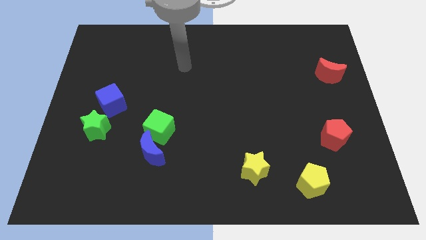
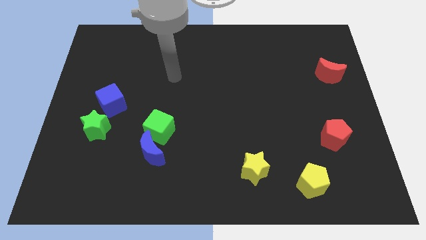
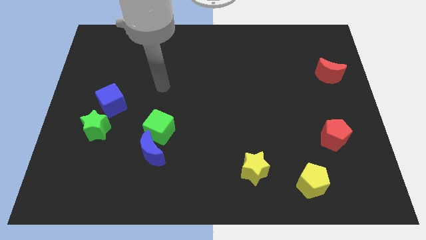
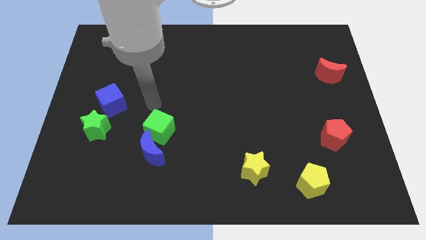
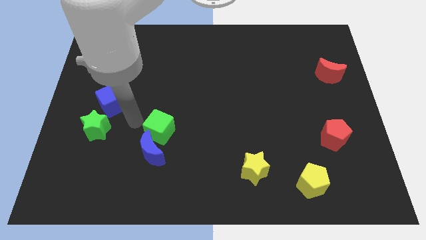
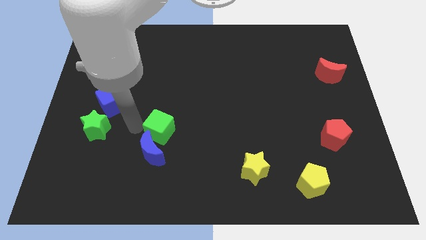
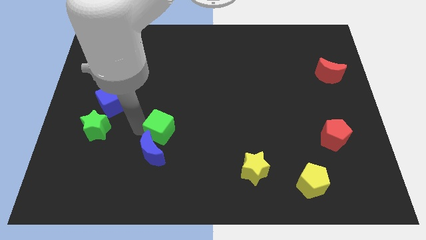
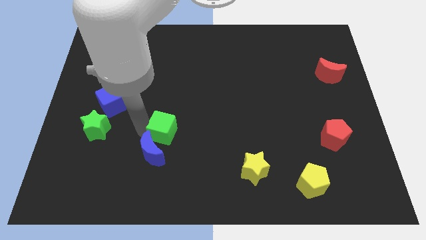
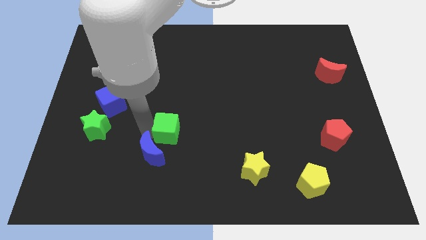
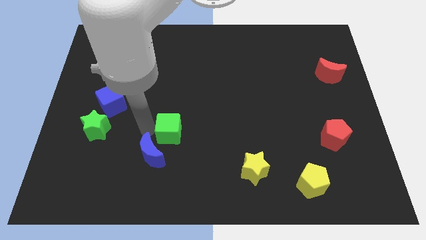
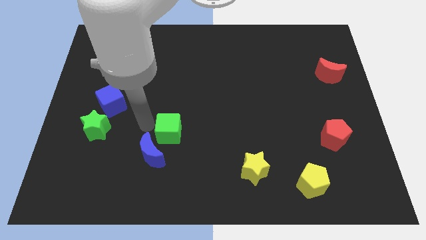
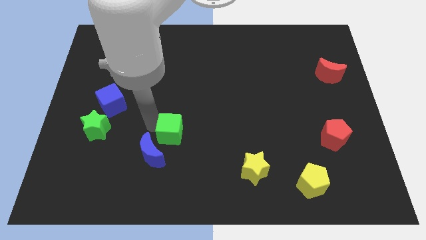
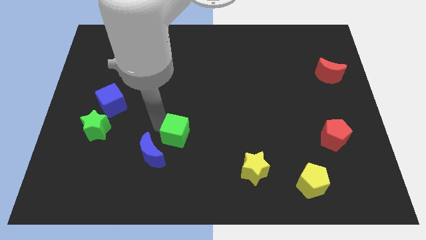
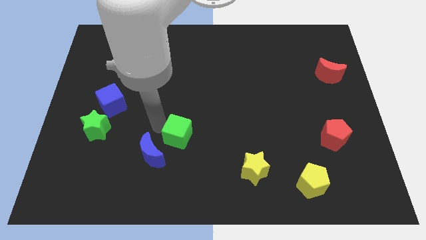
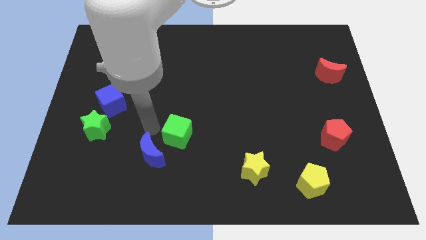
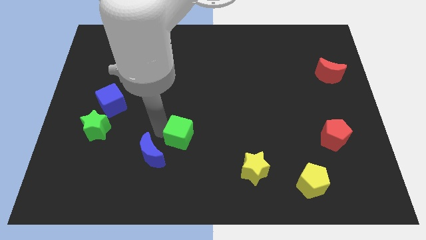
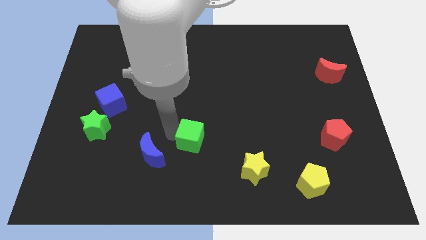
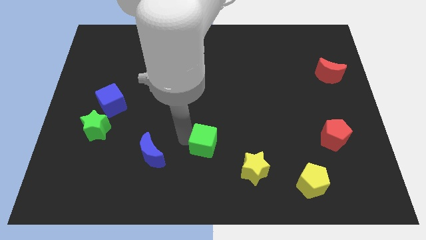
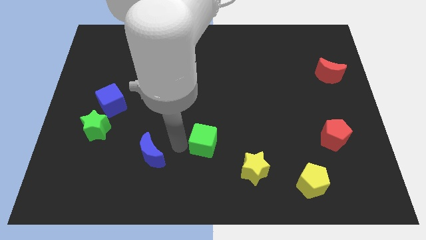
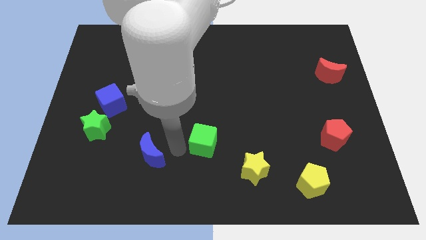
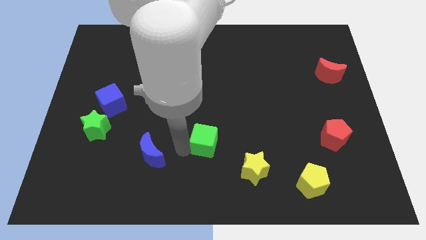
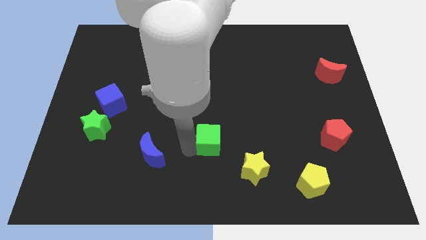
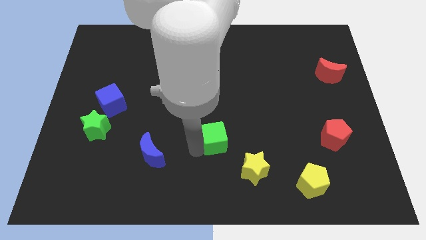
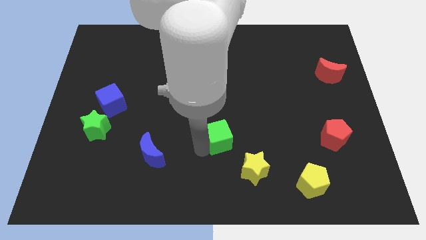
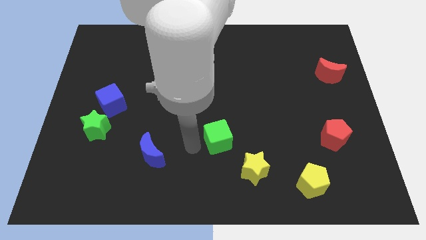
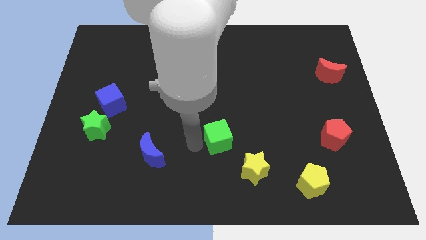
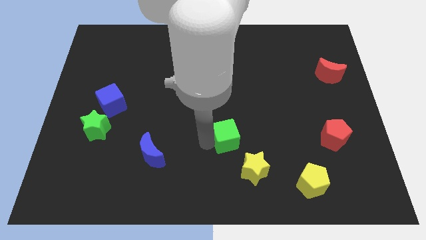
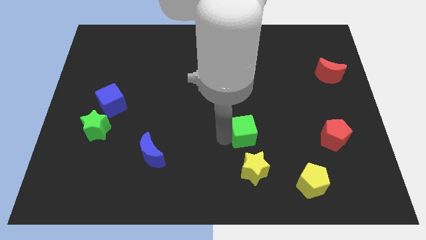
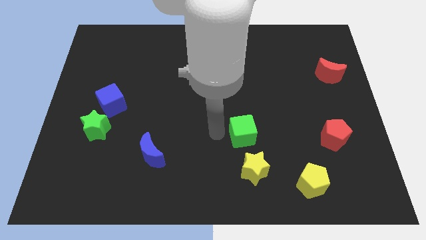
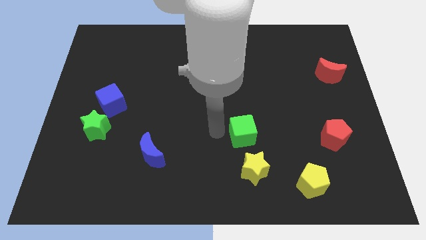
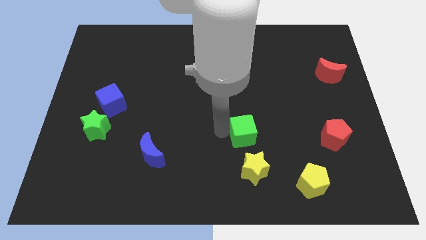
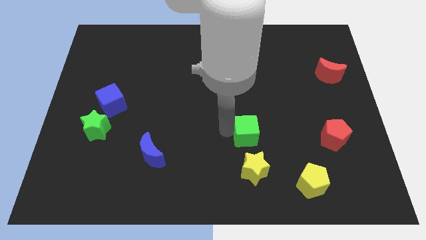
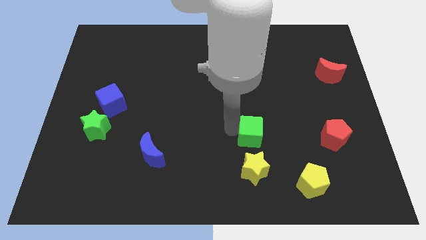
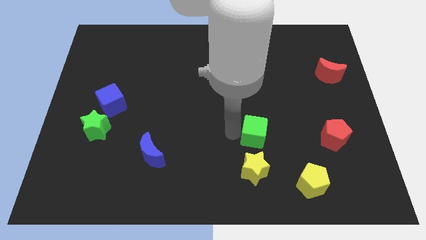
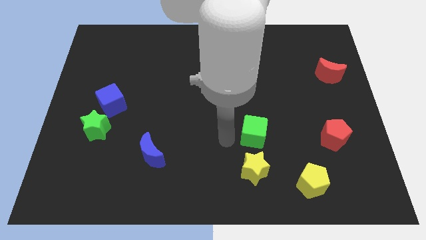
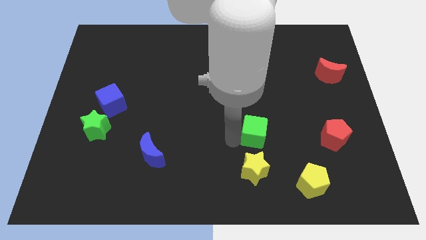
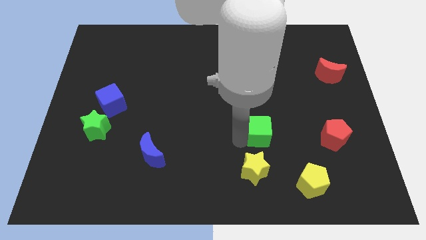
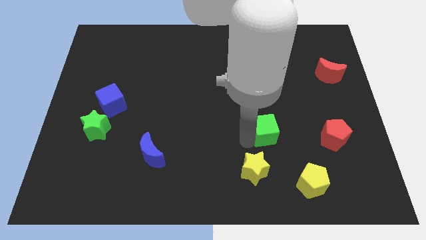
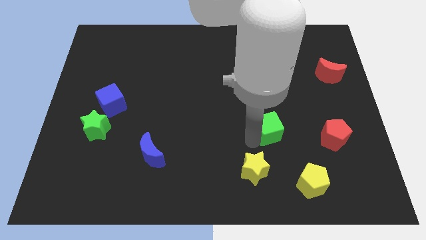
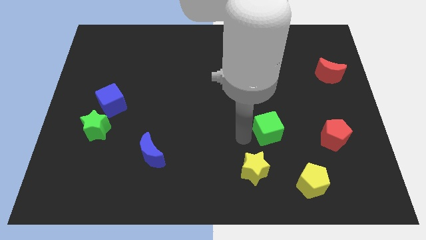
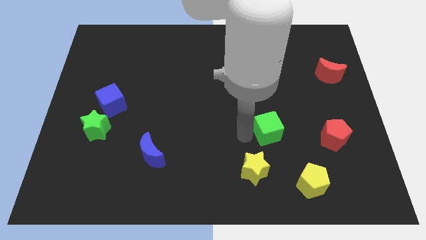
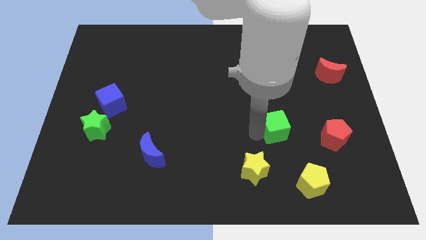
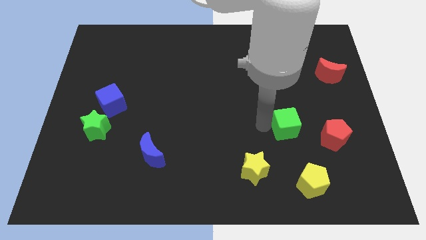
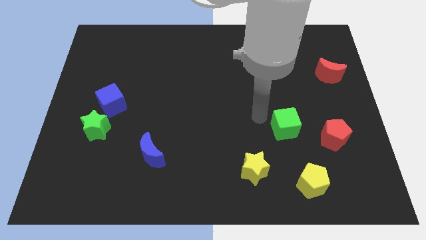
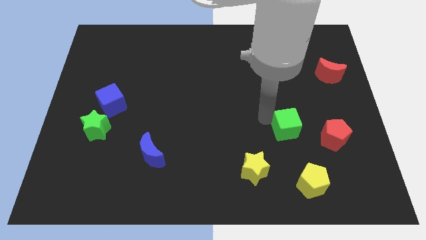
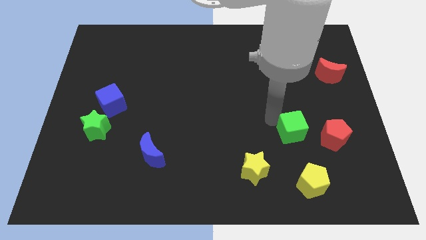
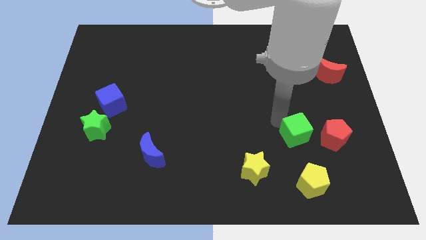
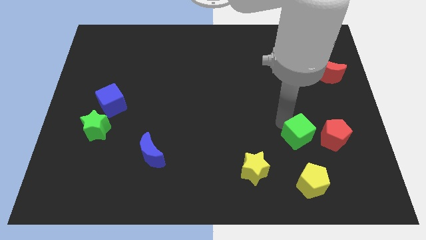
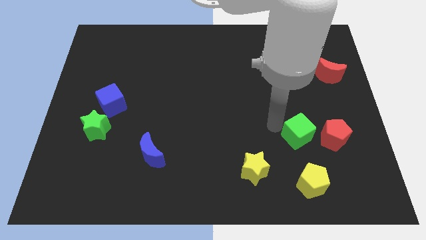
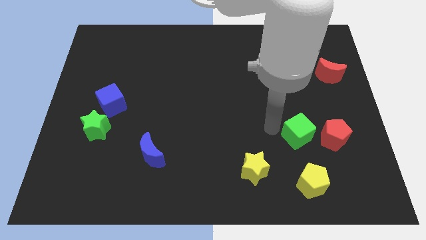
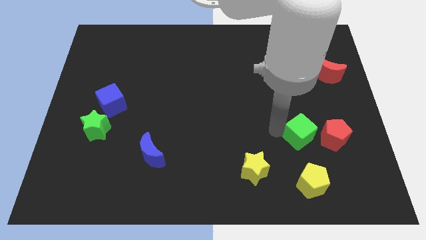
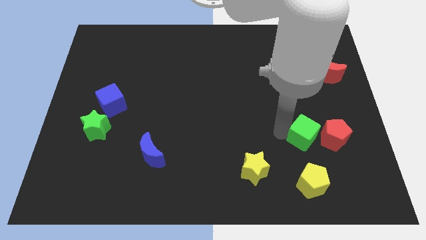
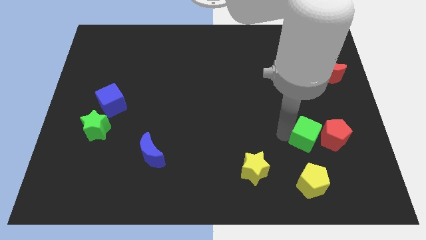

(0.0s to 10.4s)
move the green cube close to the red pentagon

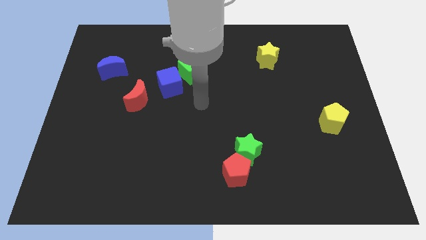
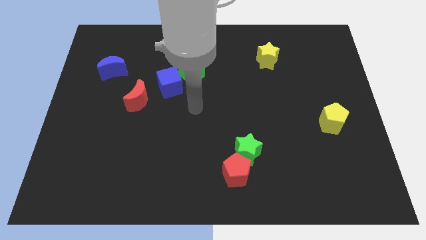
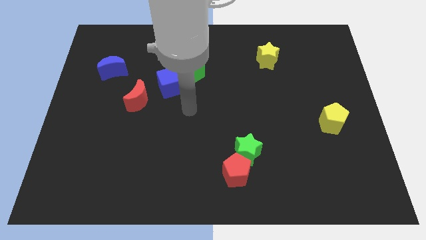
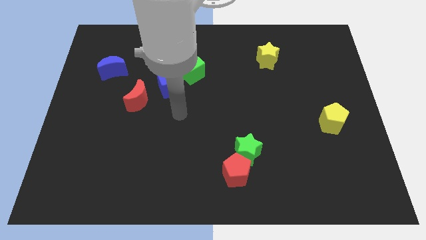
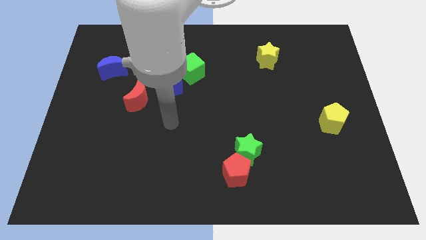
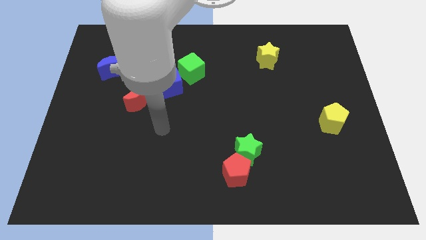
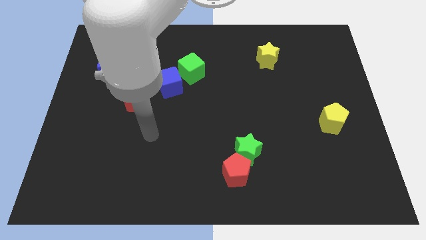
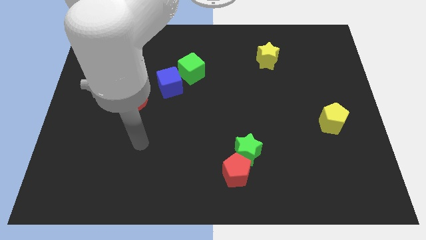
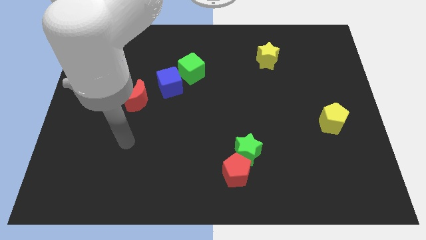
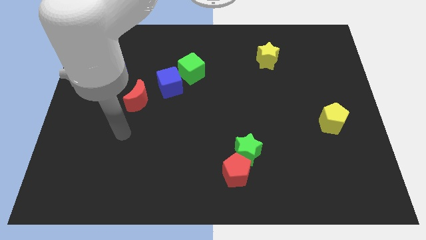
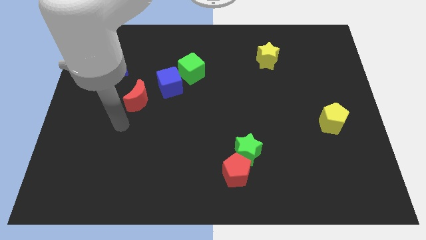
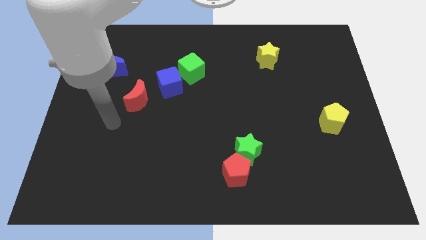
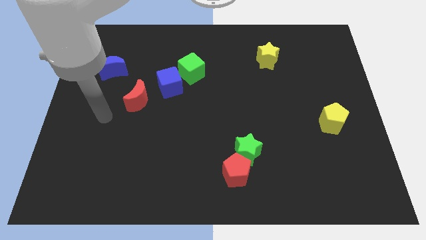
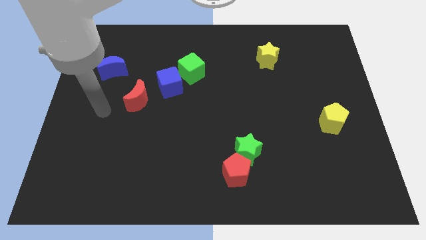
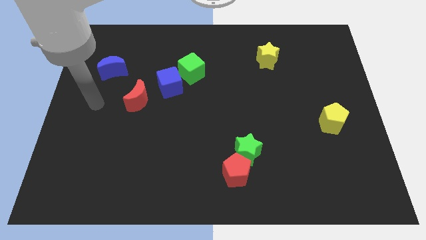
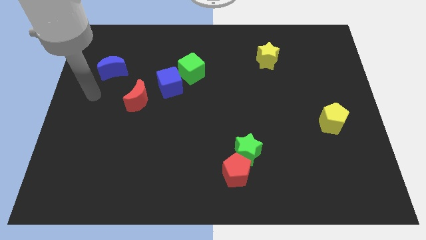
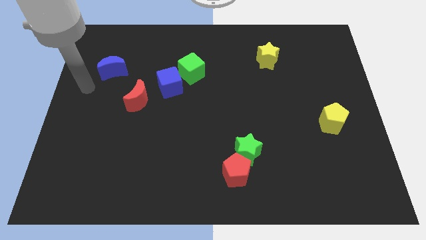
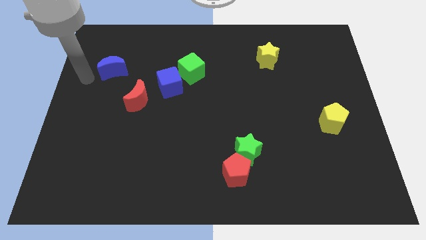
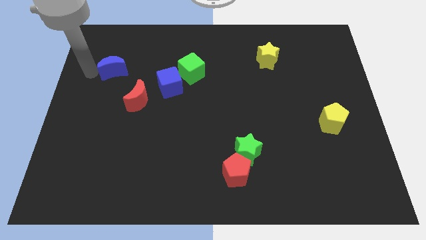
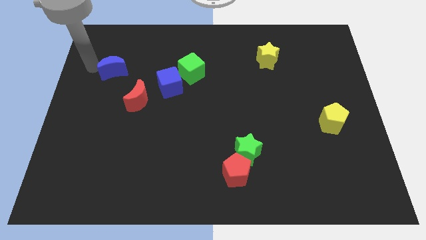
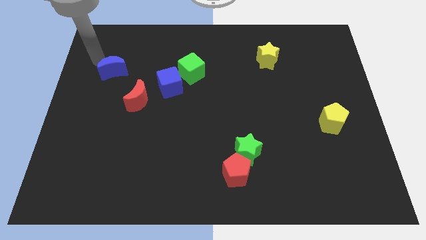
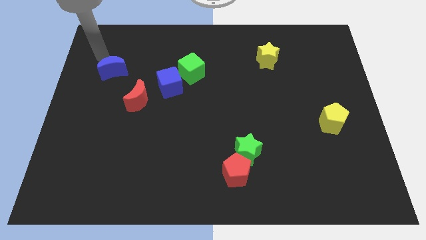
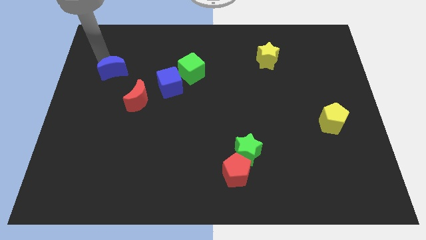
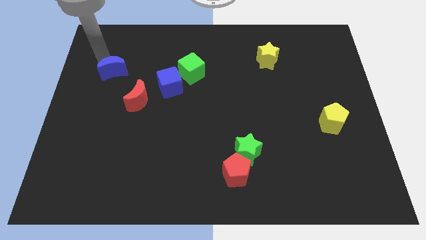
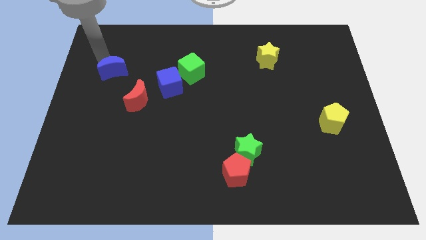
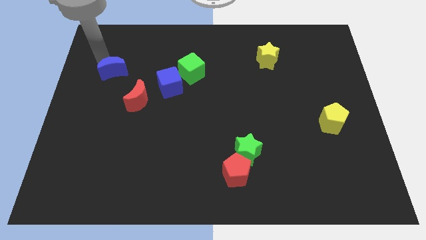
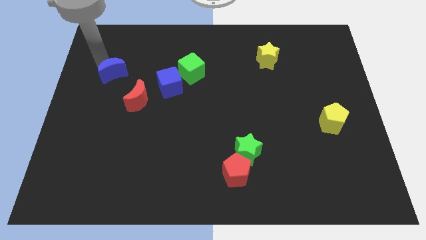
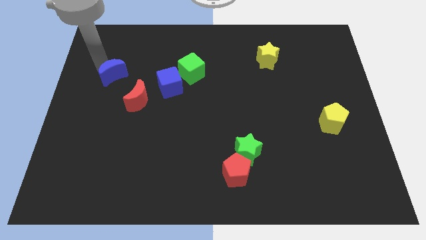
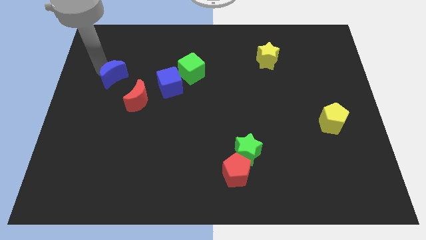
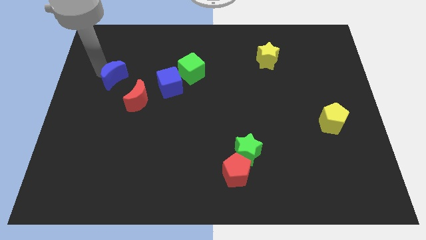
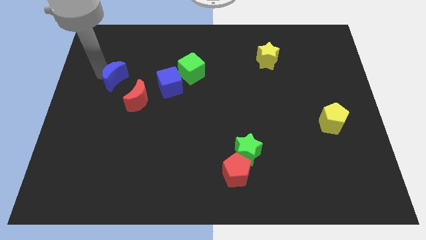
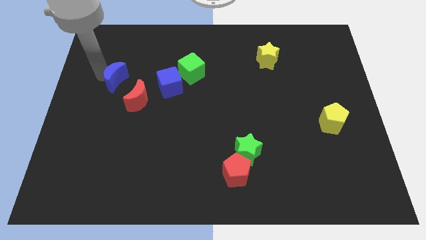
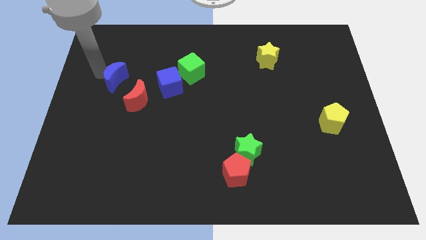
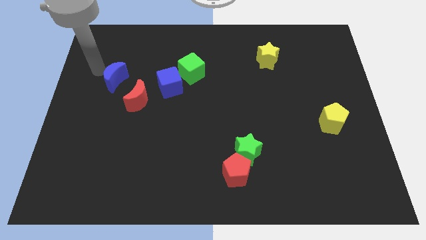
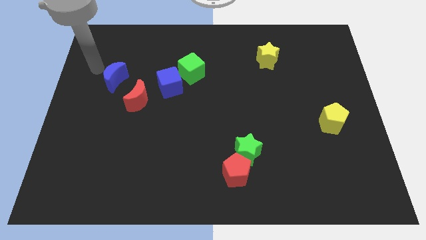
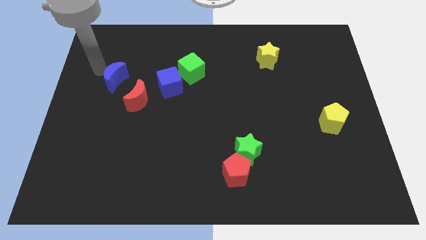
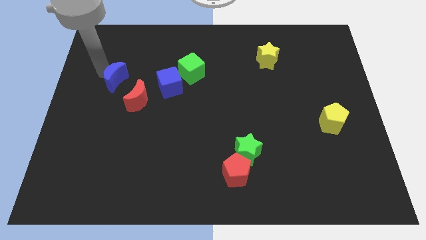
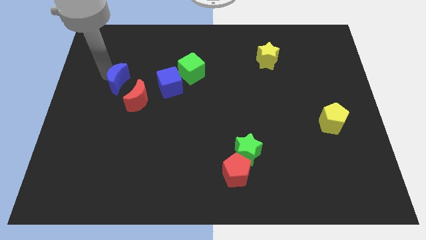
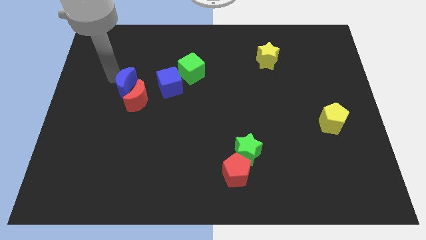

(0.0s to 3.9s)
slide the blue moon to the red moon
